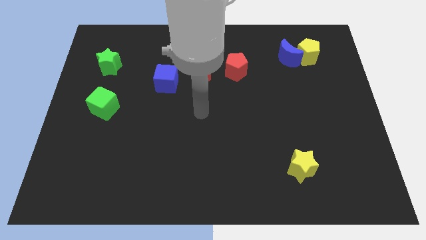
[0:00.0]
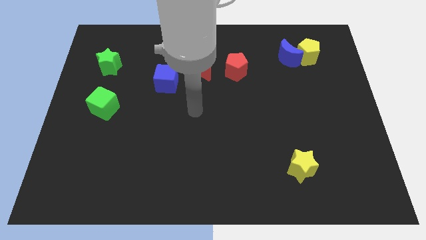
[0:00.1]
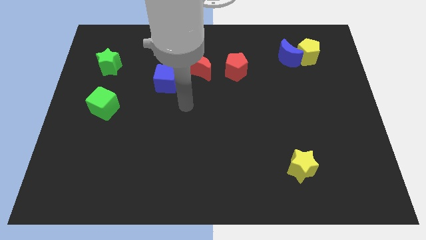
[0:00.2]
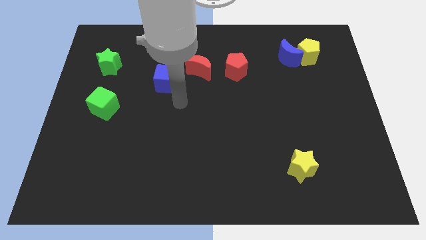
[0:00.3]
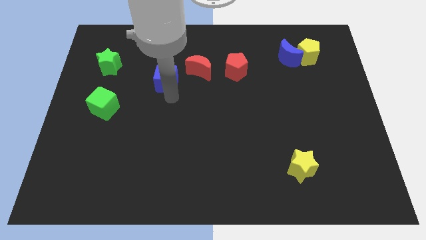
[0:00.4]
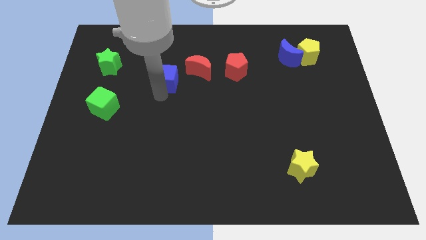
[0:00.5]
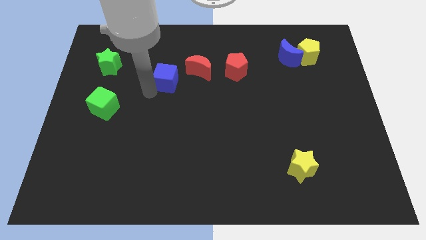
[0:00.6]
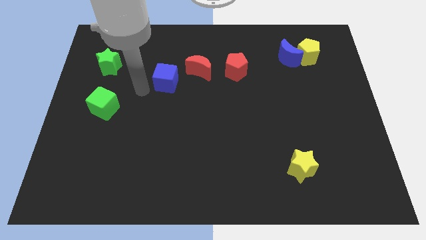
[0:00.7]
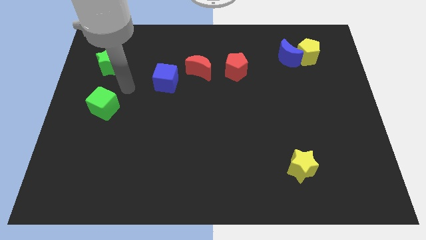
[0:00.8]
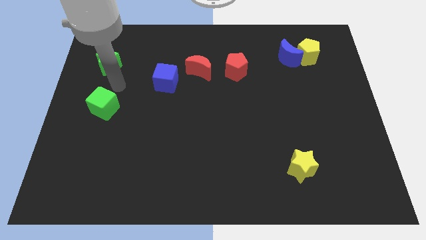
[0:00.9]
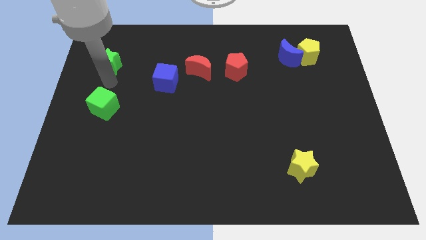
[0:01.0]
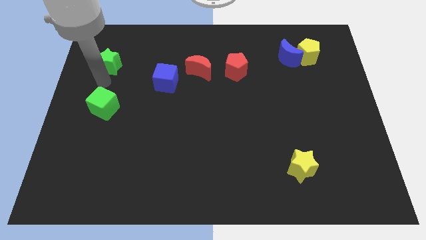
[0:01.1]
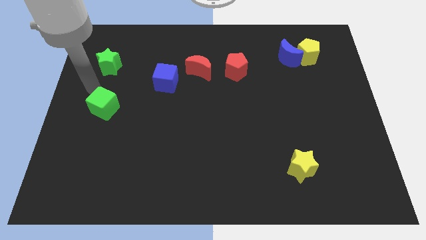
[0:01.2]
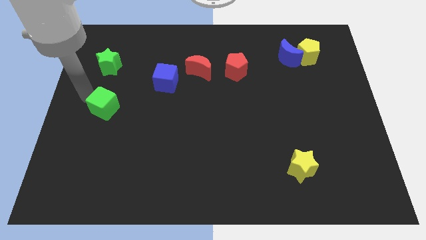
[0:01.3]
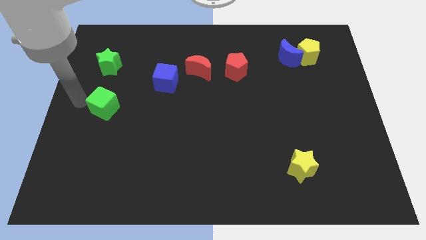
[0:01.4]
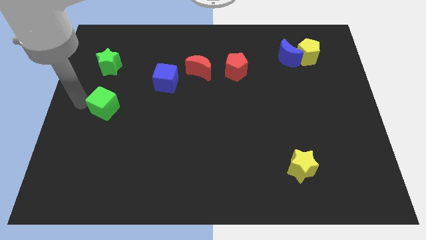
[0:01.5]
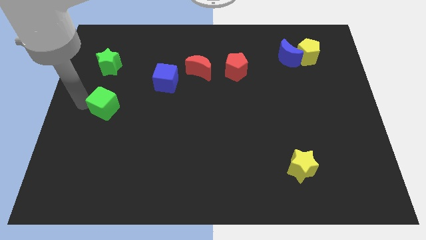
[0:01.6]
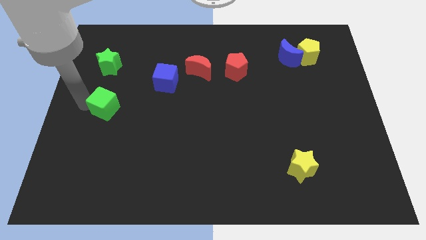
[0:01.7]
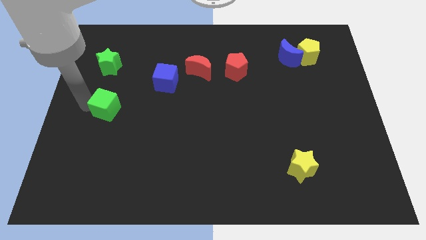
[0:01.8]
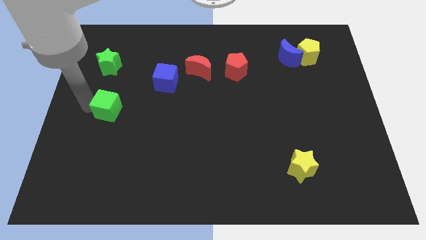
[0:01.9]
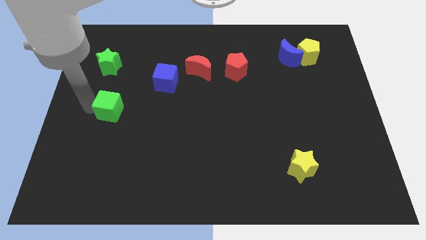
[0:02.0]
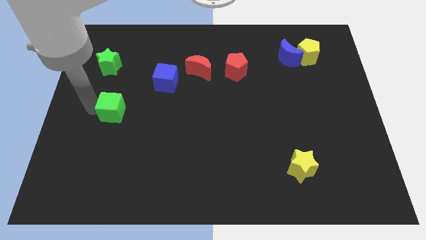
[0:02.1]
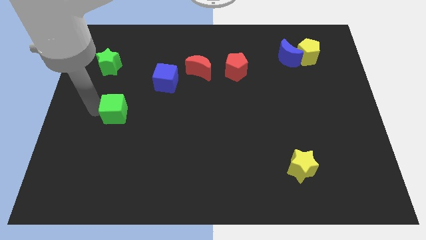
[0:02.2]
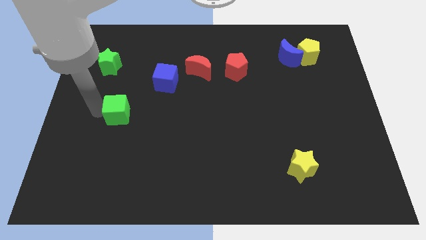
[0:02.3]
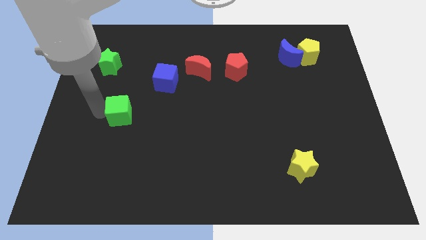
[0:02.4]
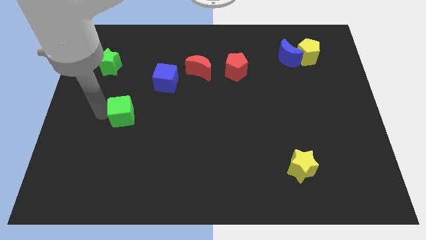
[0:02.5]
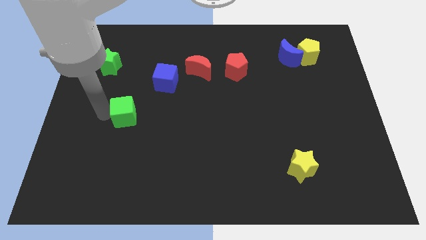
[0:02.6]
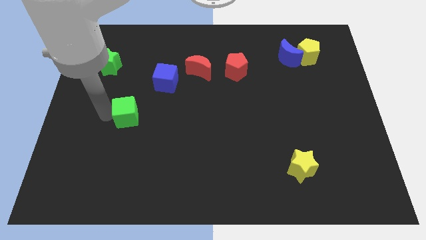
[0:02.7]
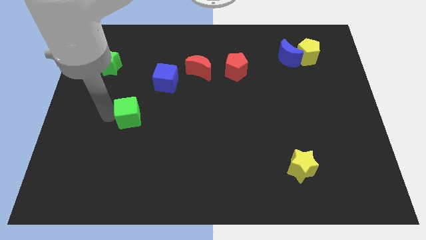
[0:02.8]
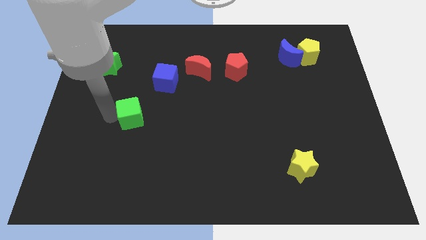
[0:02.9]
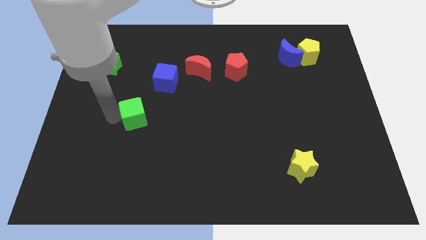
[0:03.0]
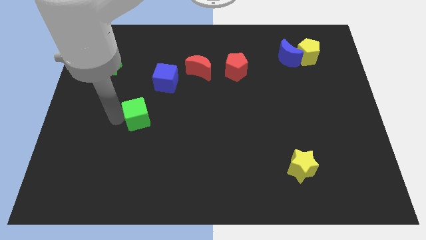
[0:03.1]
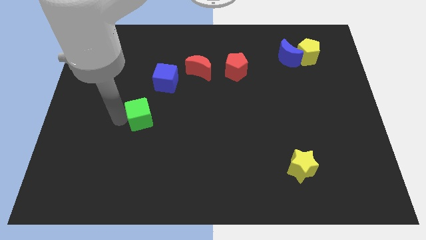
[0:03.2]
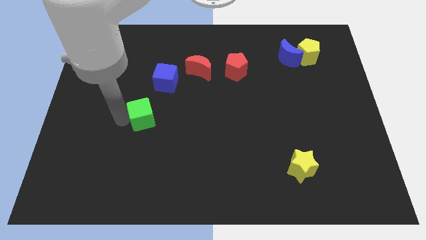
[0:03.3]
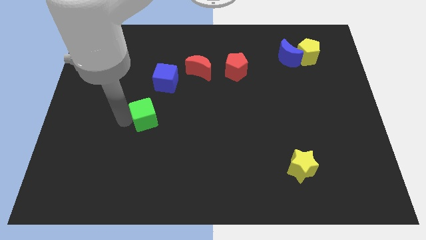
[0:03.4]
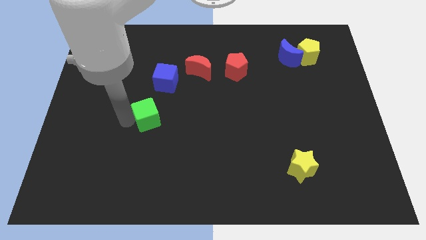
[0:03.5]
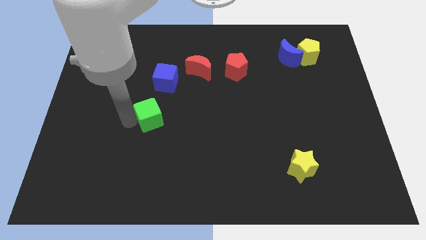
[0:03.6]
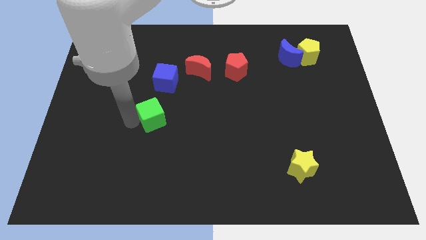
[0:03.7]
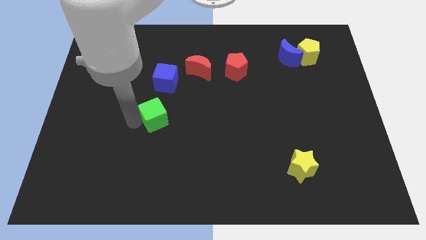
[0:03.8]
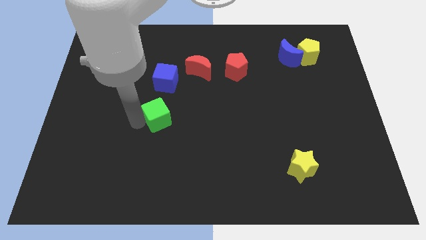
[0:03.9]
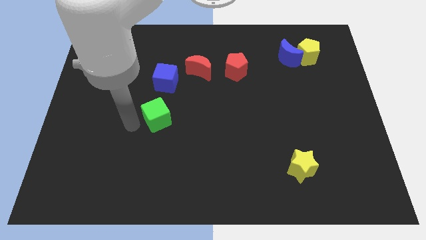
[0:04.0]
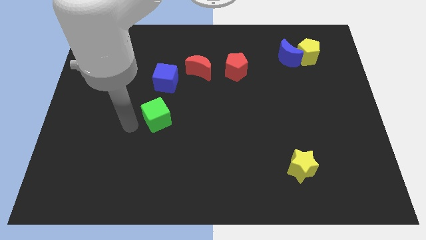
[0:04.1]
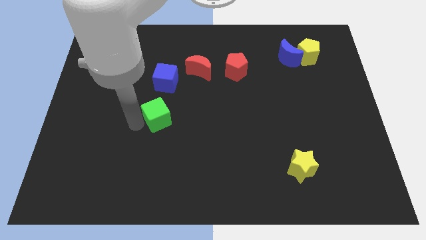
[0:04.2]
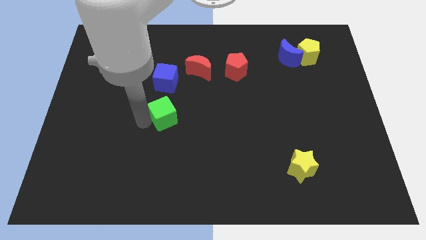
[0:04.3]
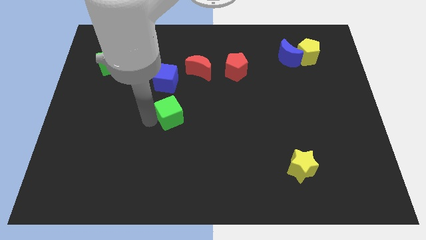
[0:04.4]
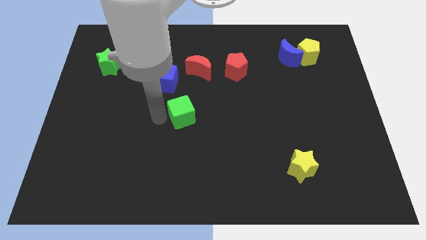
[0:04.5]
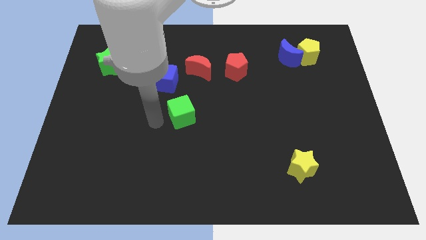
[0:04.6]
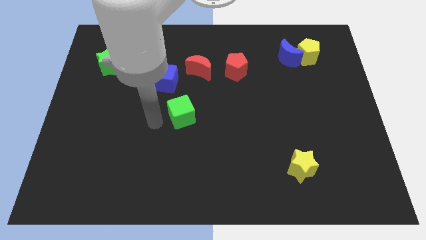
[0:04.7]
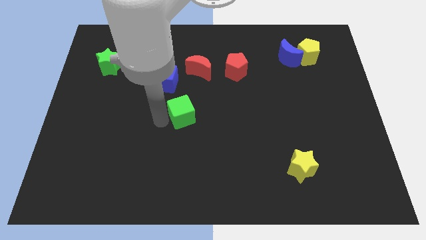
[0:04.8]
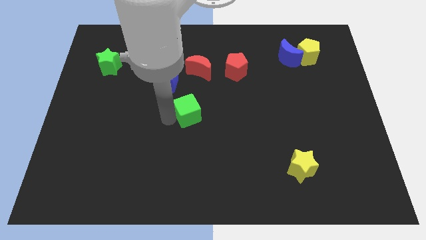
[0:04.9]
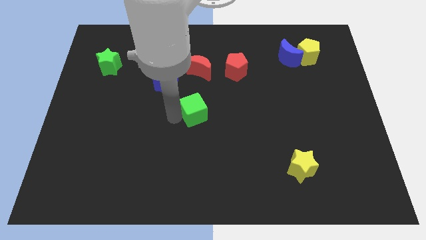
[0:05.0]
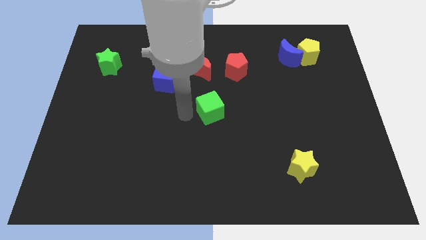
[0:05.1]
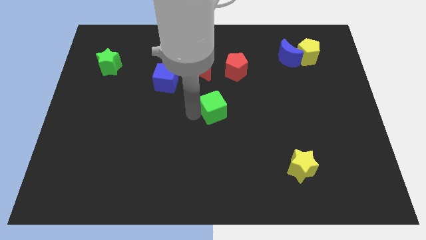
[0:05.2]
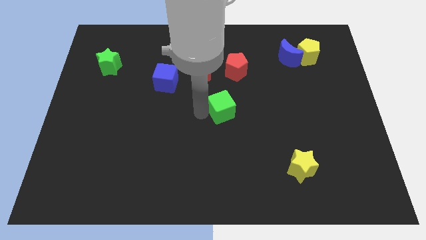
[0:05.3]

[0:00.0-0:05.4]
push the green cube below the red pentagon

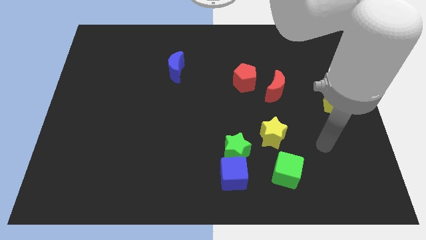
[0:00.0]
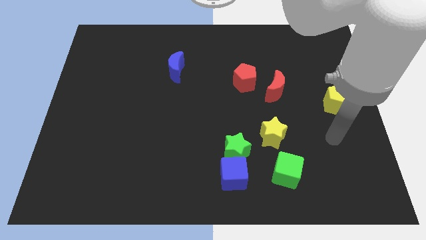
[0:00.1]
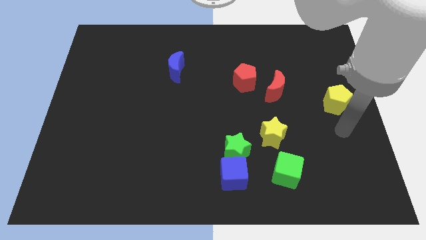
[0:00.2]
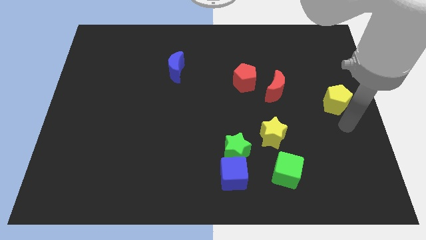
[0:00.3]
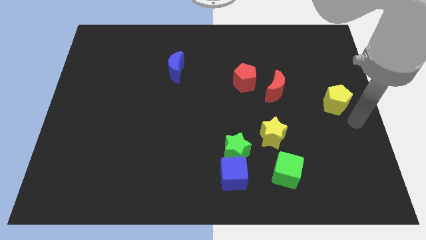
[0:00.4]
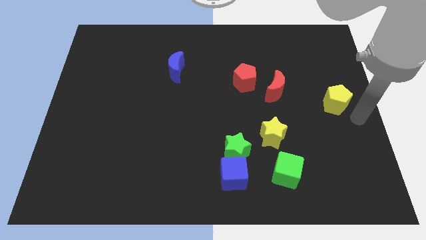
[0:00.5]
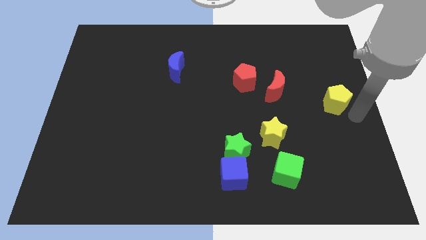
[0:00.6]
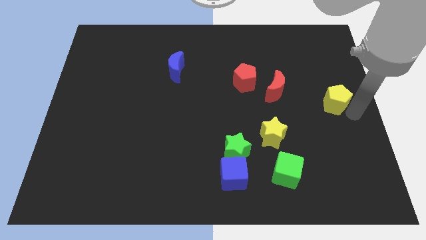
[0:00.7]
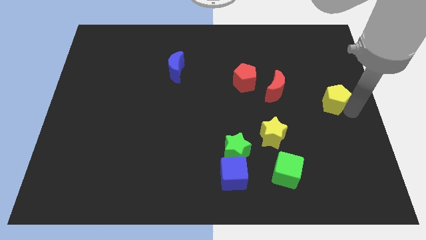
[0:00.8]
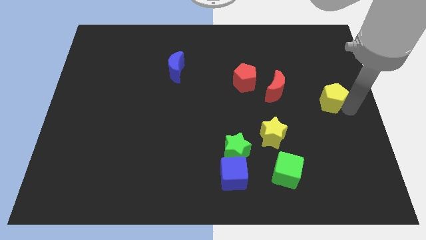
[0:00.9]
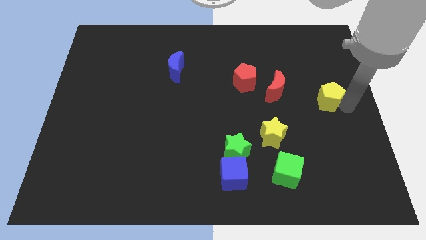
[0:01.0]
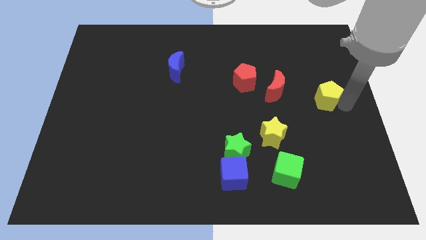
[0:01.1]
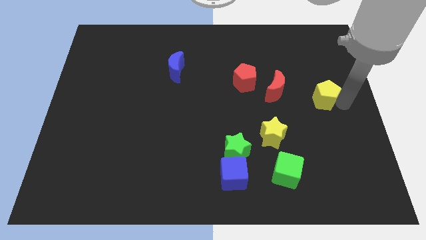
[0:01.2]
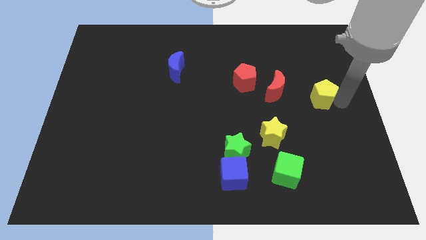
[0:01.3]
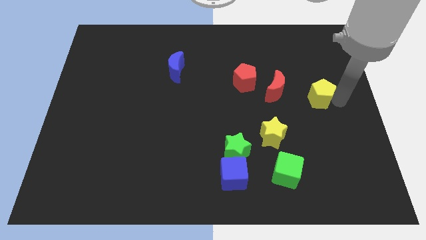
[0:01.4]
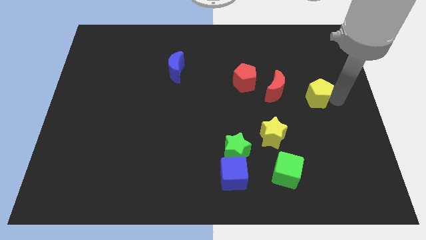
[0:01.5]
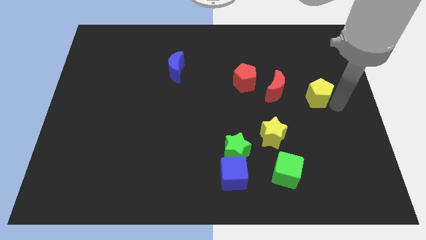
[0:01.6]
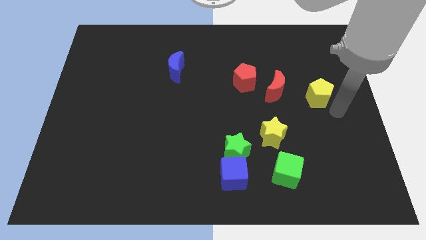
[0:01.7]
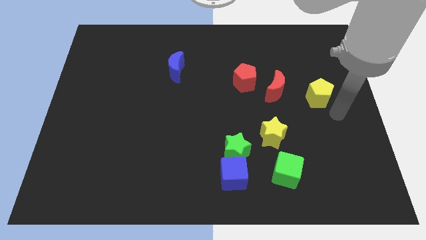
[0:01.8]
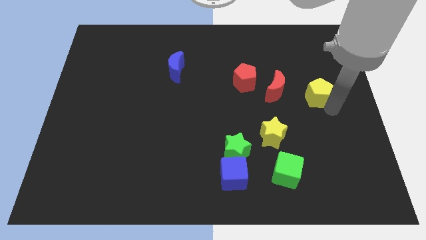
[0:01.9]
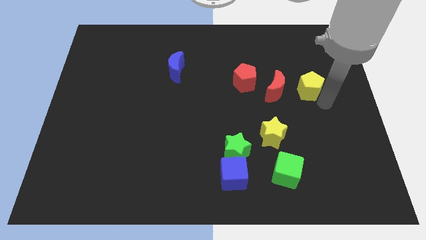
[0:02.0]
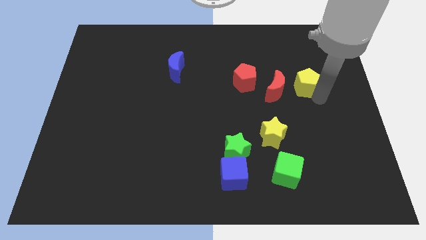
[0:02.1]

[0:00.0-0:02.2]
push the yellow pentagon to the top right of the red moon
